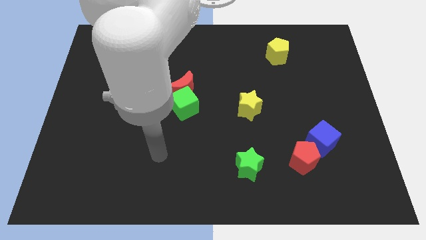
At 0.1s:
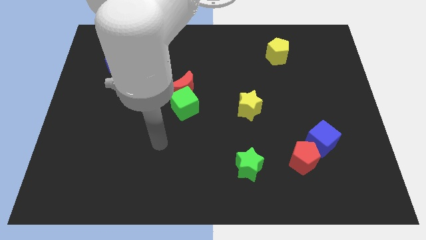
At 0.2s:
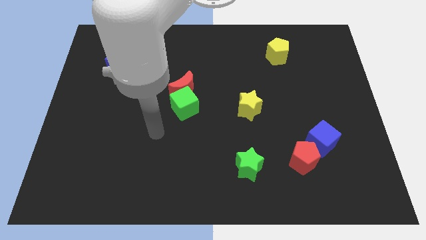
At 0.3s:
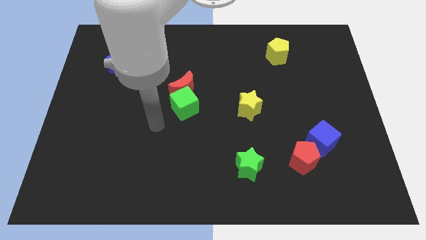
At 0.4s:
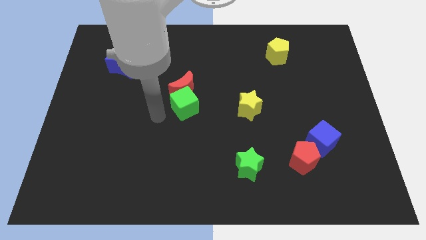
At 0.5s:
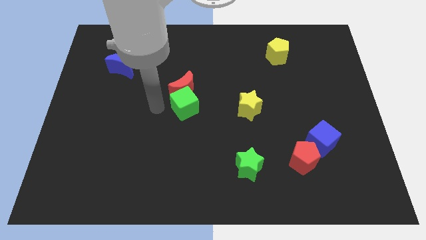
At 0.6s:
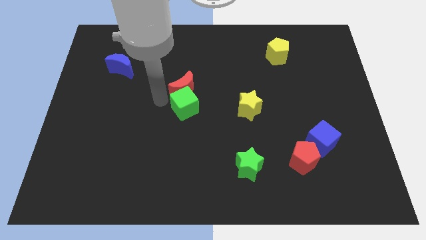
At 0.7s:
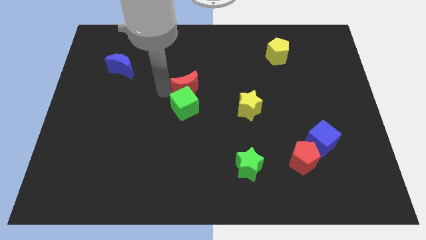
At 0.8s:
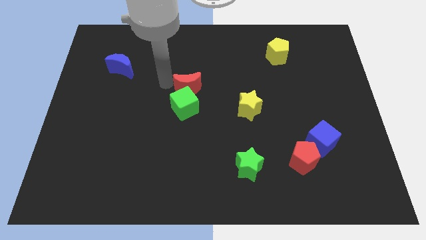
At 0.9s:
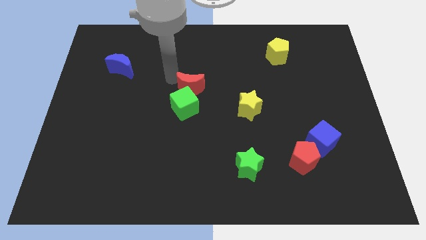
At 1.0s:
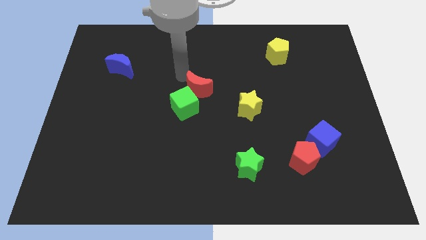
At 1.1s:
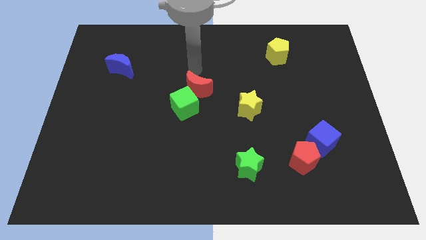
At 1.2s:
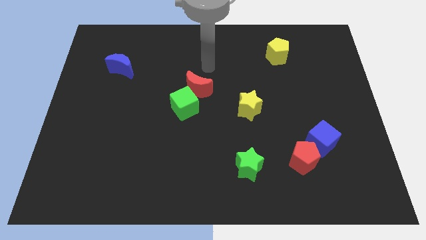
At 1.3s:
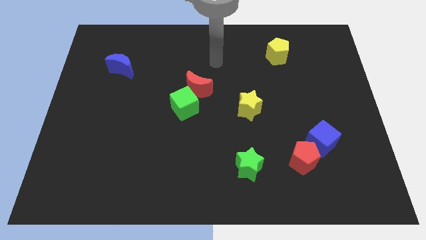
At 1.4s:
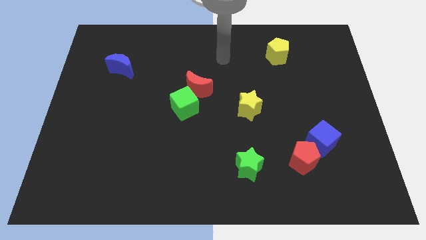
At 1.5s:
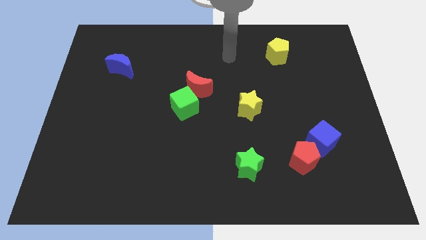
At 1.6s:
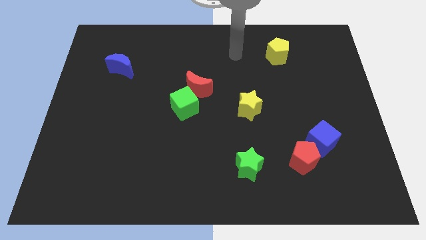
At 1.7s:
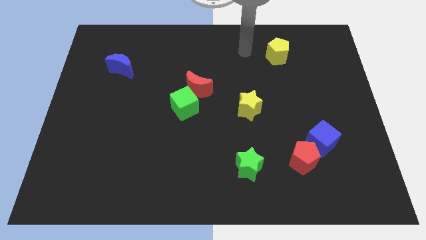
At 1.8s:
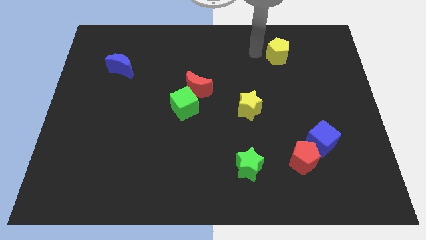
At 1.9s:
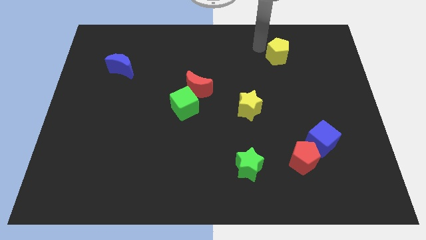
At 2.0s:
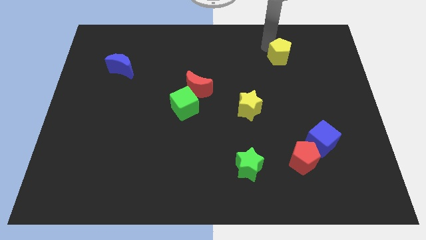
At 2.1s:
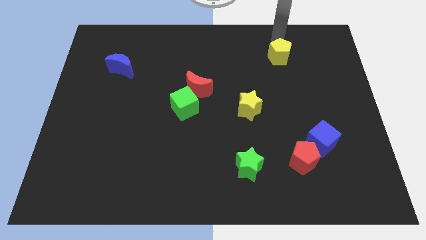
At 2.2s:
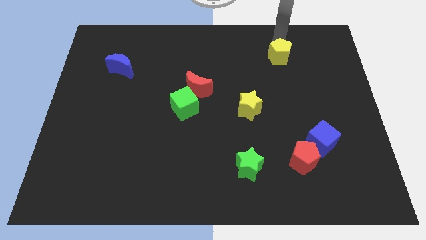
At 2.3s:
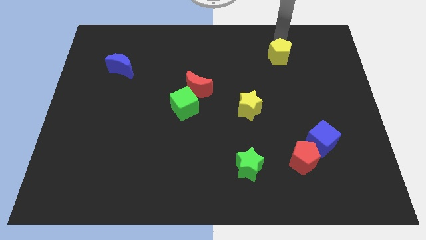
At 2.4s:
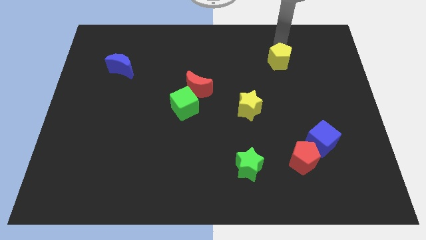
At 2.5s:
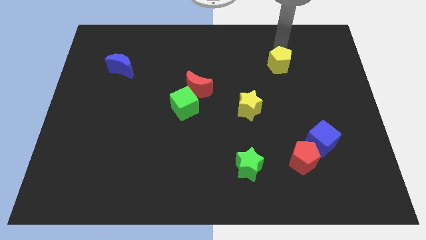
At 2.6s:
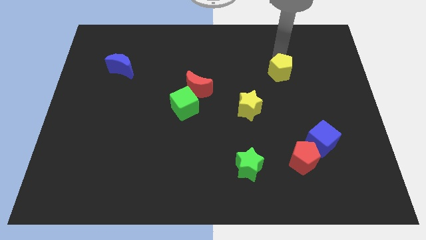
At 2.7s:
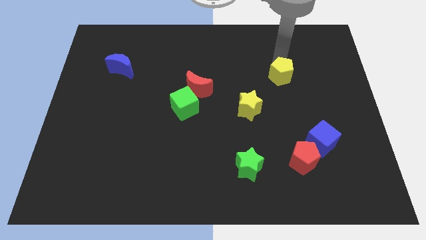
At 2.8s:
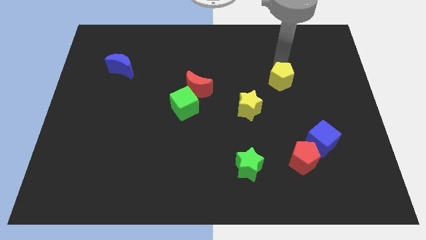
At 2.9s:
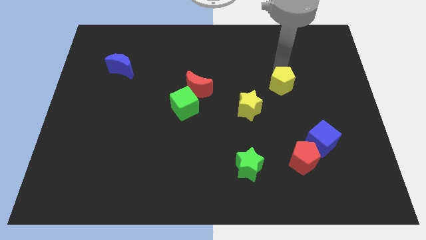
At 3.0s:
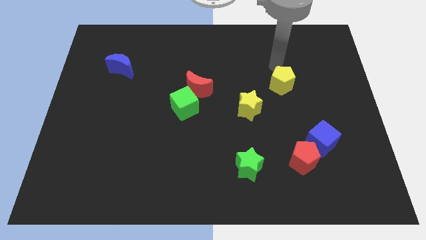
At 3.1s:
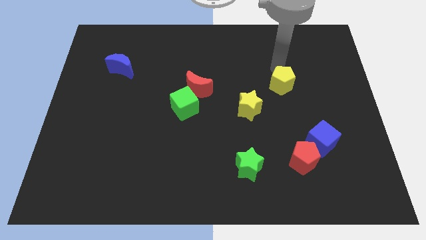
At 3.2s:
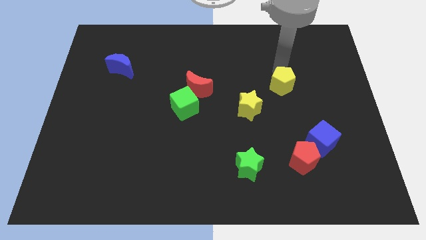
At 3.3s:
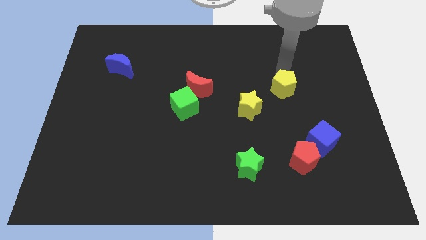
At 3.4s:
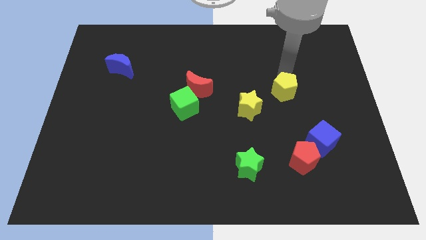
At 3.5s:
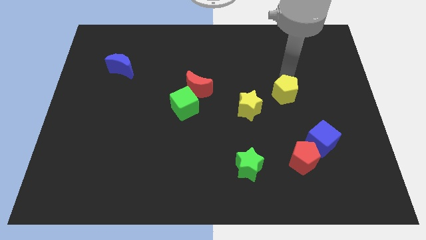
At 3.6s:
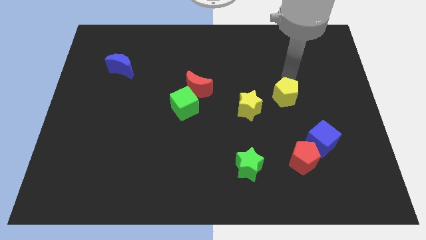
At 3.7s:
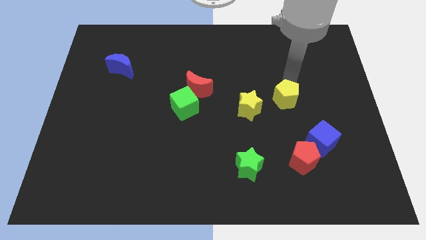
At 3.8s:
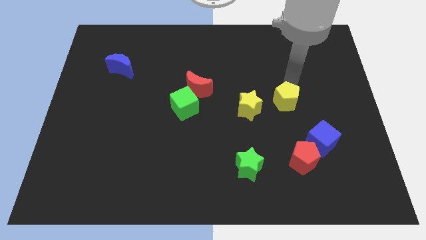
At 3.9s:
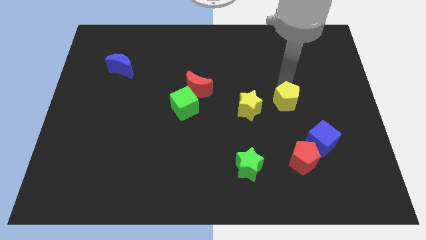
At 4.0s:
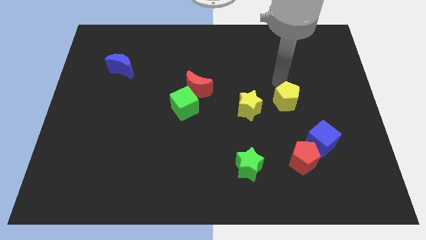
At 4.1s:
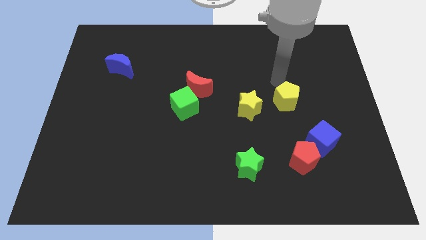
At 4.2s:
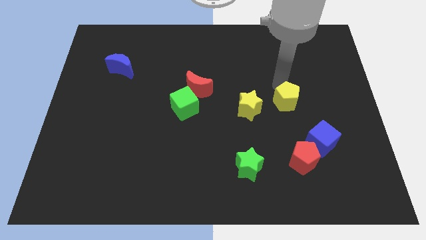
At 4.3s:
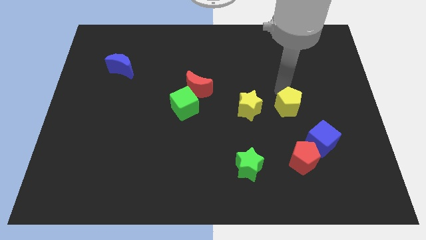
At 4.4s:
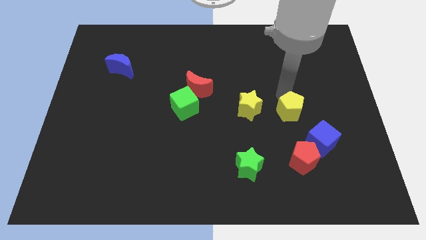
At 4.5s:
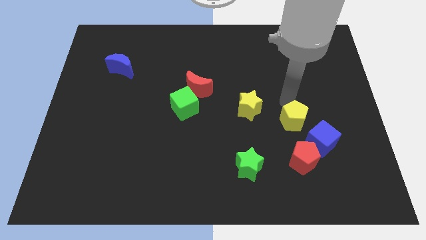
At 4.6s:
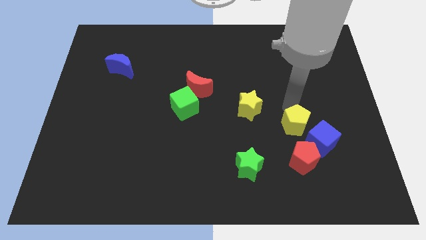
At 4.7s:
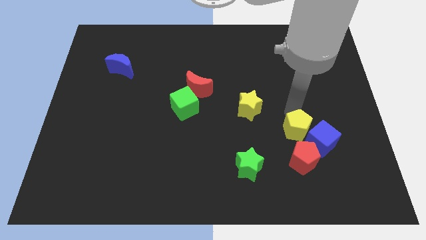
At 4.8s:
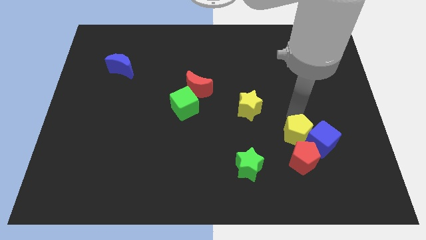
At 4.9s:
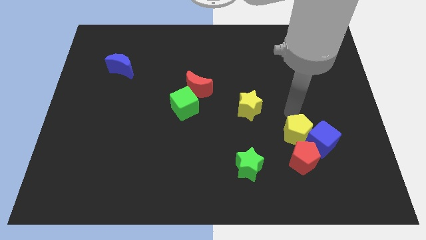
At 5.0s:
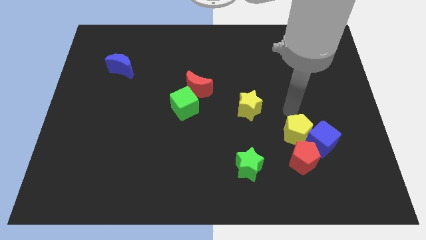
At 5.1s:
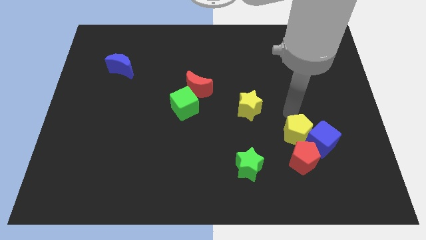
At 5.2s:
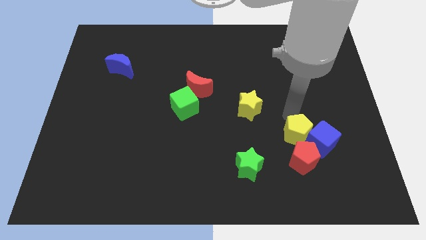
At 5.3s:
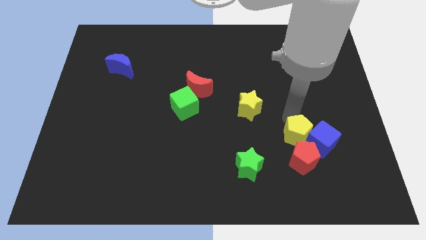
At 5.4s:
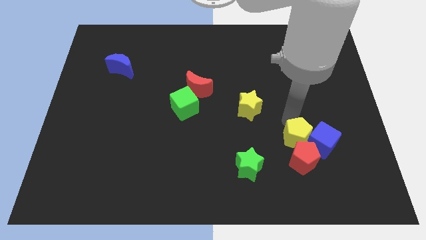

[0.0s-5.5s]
slide the yellow pentagon next to the red pentagon

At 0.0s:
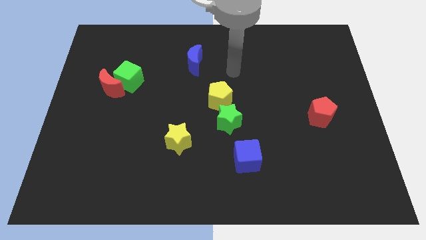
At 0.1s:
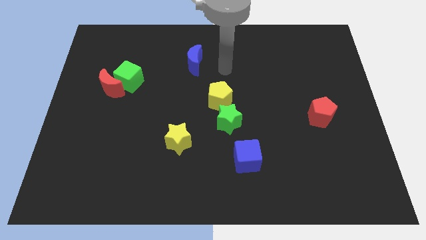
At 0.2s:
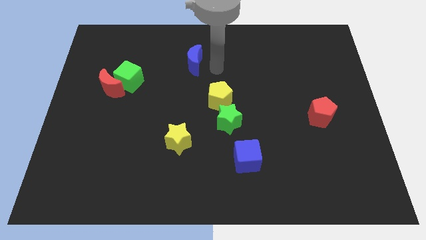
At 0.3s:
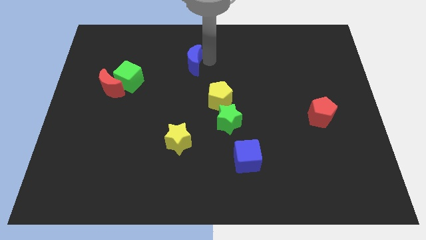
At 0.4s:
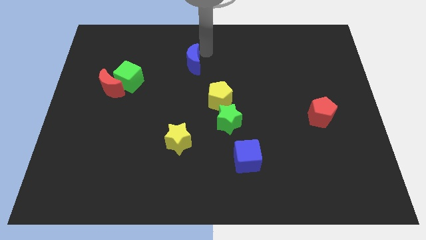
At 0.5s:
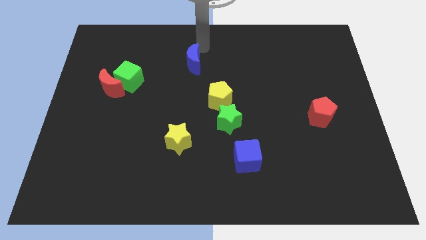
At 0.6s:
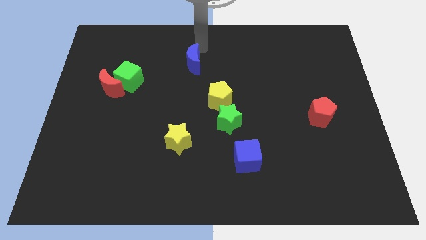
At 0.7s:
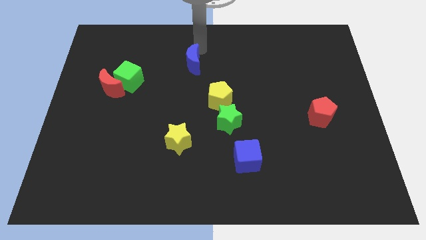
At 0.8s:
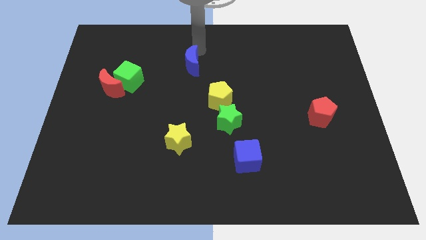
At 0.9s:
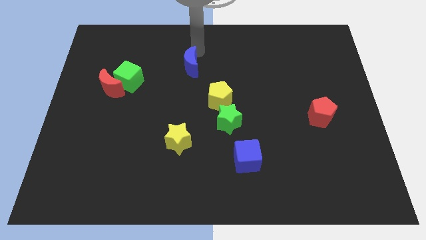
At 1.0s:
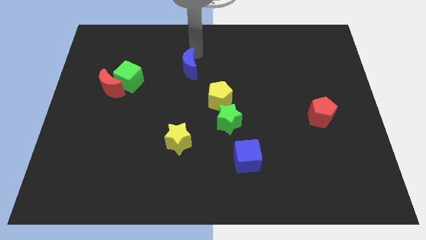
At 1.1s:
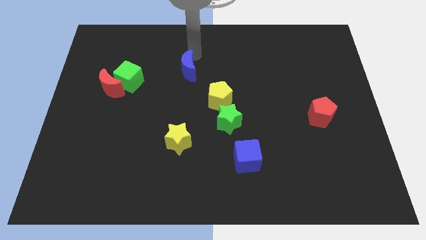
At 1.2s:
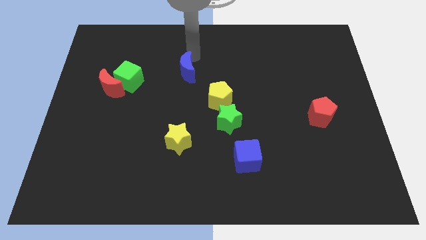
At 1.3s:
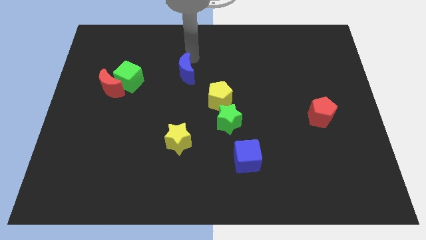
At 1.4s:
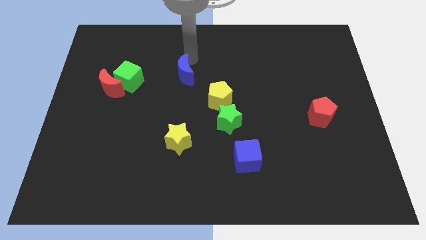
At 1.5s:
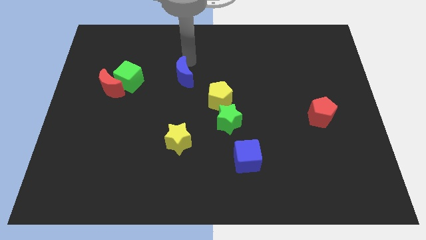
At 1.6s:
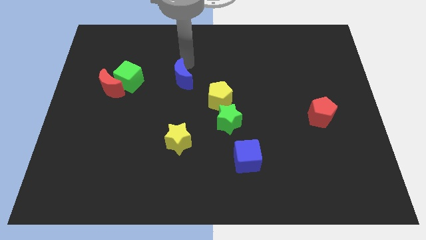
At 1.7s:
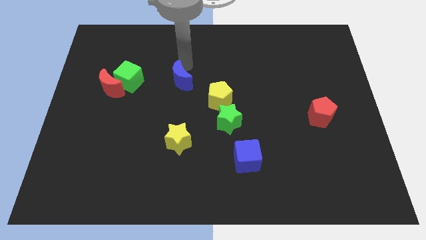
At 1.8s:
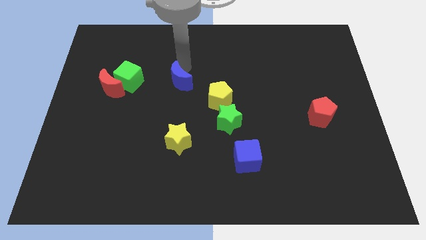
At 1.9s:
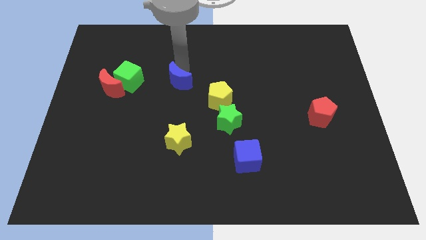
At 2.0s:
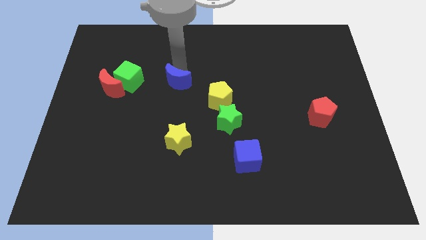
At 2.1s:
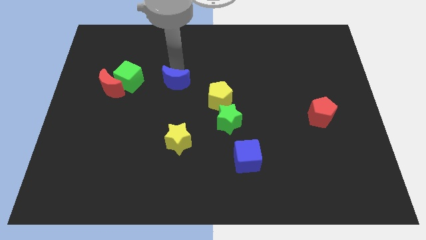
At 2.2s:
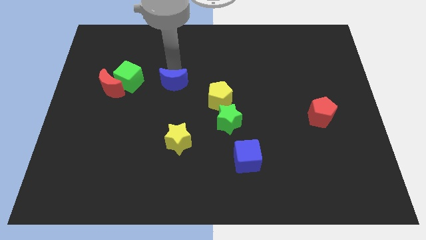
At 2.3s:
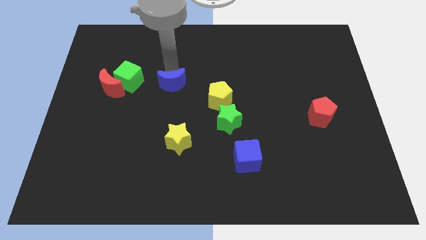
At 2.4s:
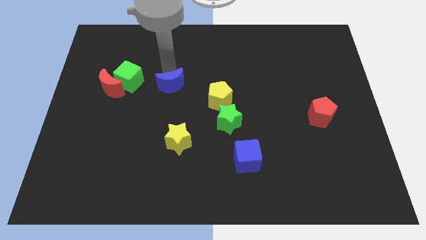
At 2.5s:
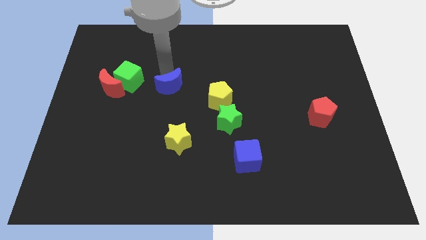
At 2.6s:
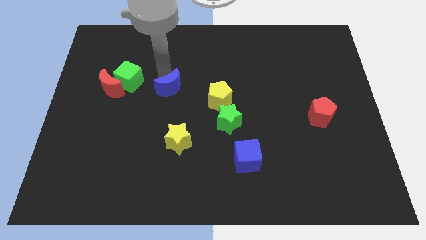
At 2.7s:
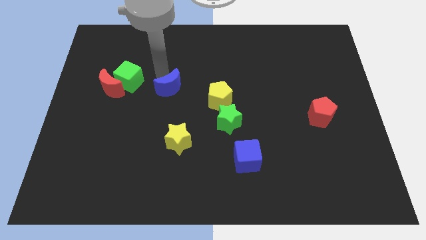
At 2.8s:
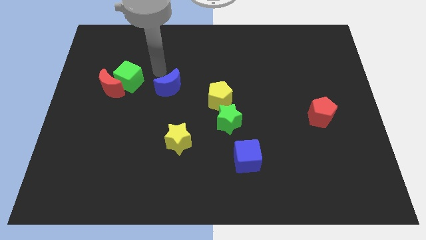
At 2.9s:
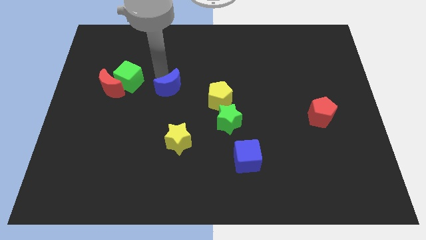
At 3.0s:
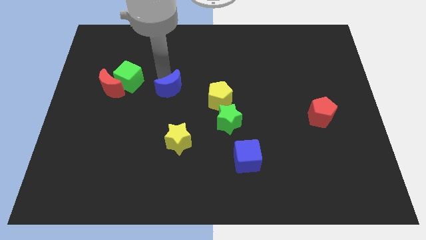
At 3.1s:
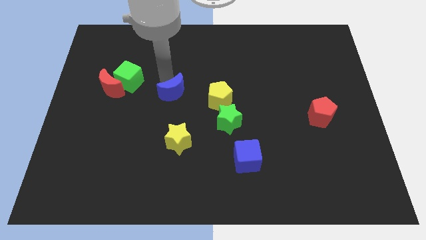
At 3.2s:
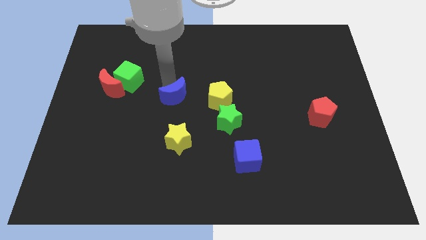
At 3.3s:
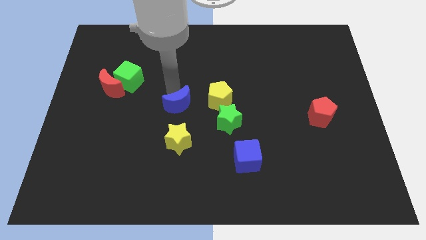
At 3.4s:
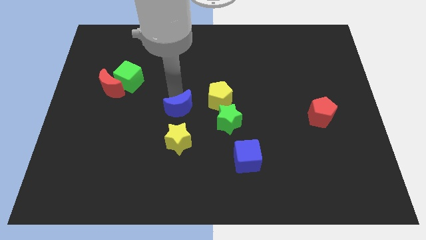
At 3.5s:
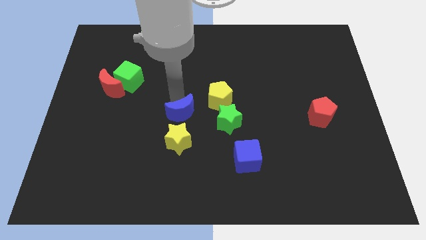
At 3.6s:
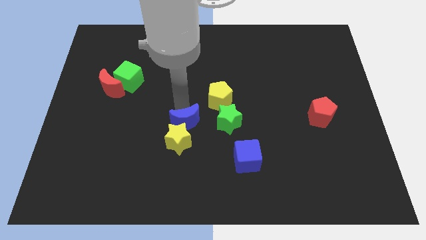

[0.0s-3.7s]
put the blue moon towards the yellow star
